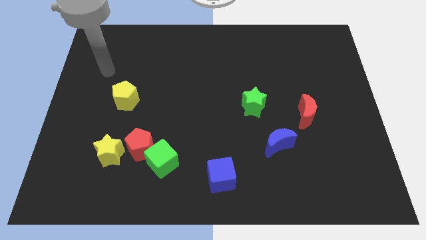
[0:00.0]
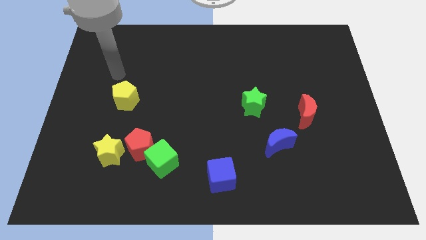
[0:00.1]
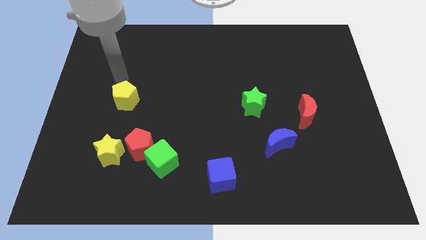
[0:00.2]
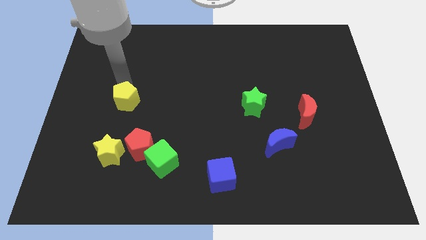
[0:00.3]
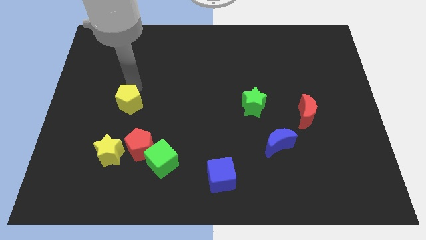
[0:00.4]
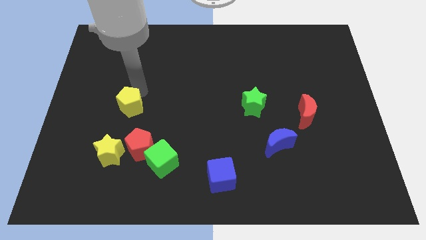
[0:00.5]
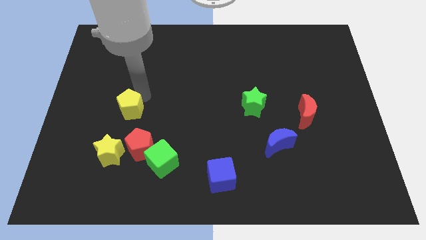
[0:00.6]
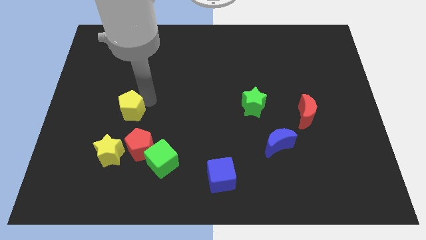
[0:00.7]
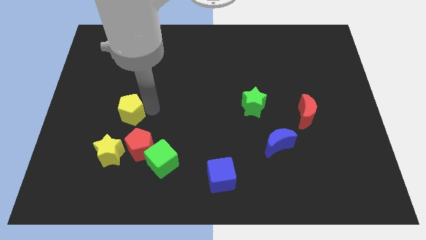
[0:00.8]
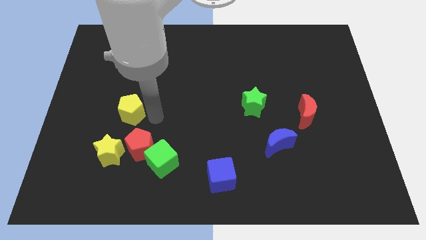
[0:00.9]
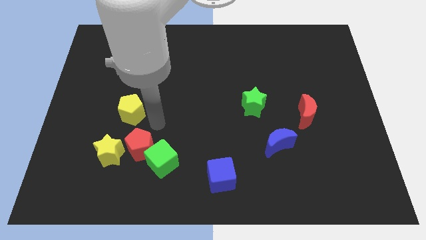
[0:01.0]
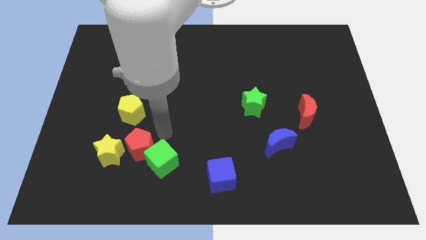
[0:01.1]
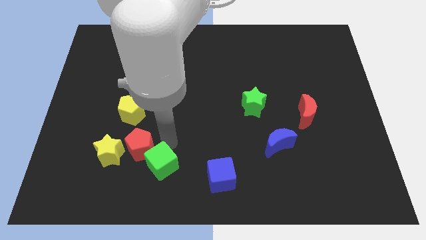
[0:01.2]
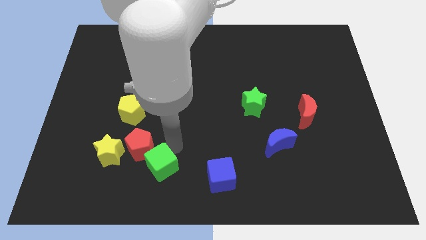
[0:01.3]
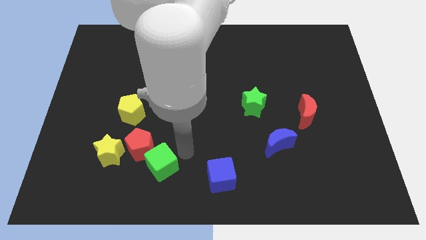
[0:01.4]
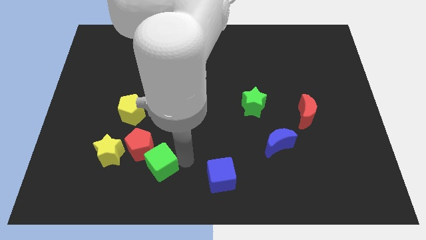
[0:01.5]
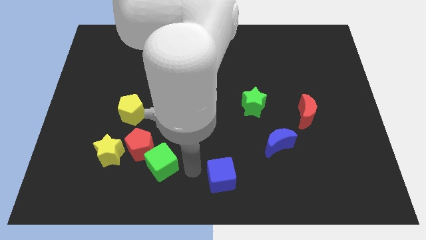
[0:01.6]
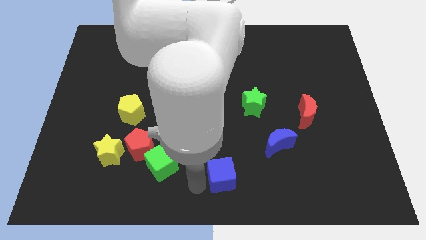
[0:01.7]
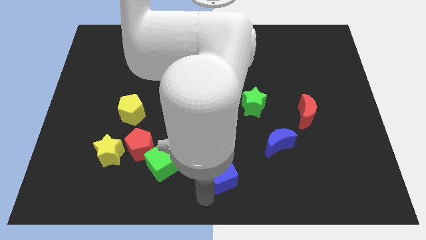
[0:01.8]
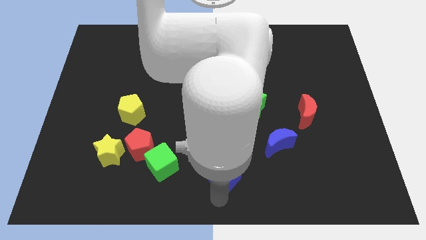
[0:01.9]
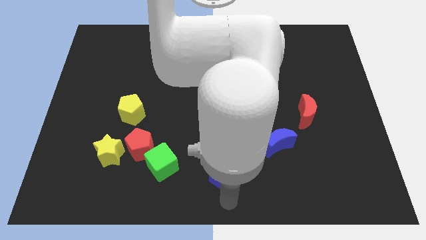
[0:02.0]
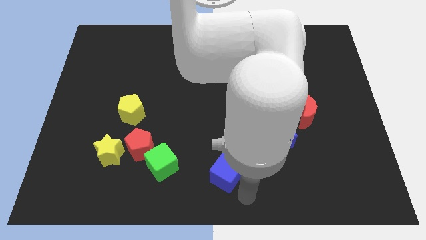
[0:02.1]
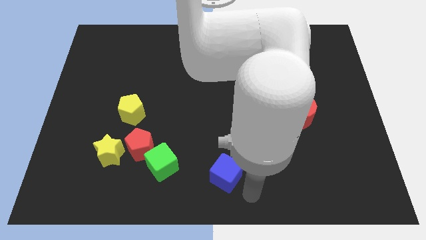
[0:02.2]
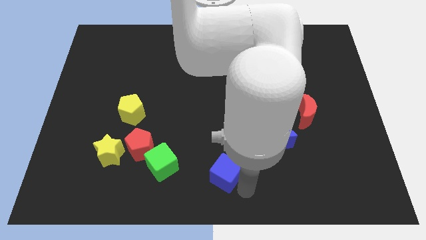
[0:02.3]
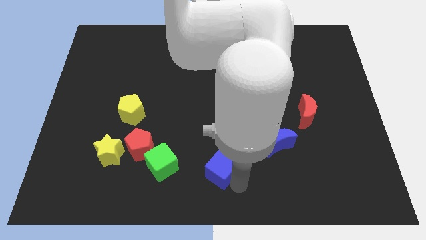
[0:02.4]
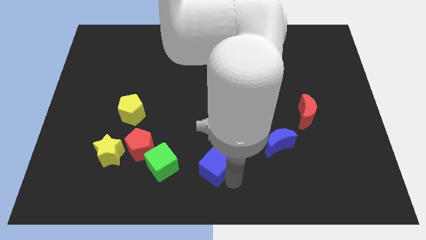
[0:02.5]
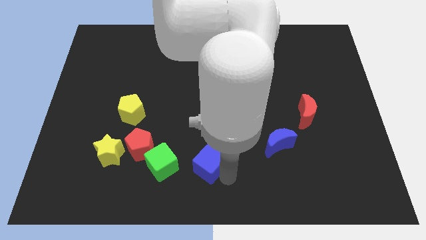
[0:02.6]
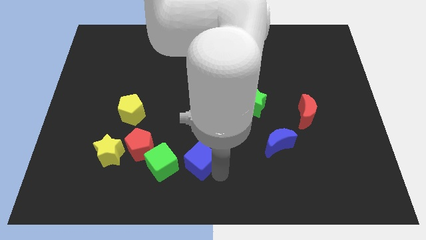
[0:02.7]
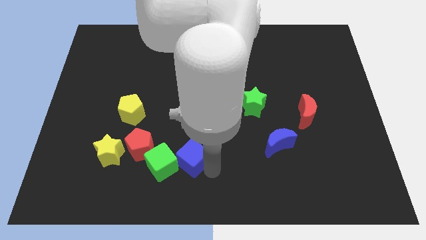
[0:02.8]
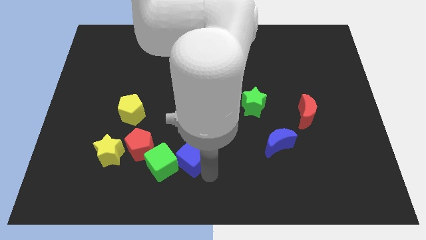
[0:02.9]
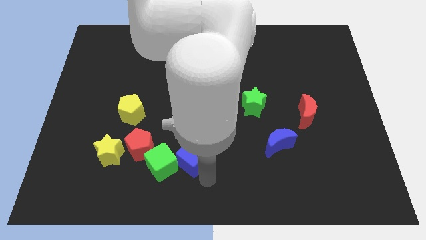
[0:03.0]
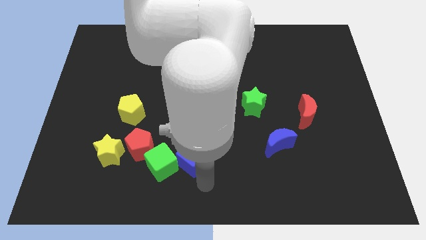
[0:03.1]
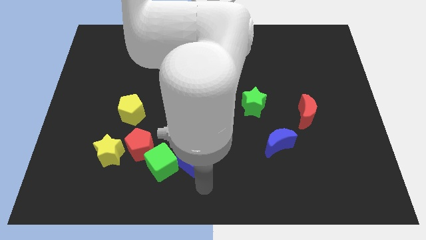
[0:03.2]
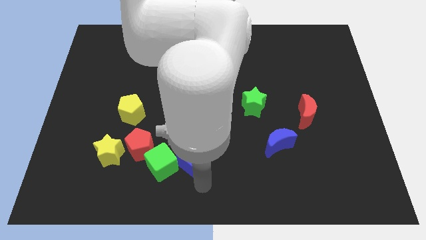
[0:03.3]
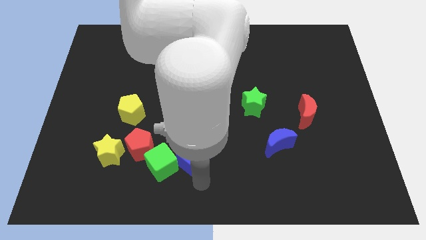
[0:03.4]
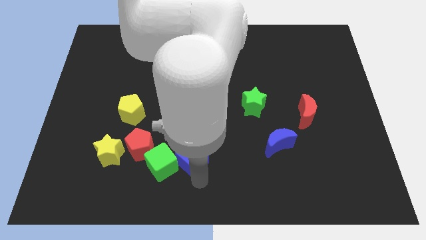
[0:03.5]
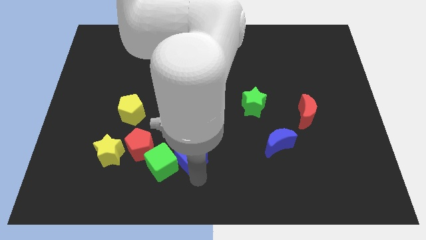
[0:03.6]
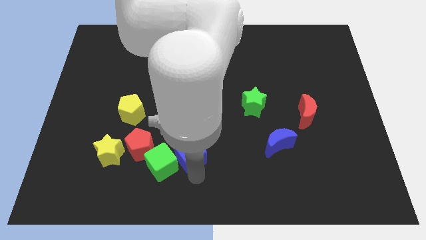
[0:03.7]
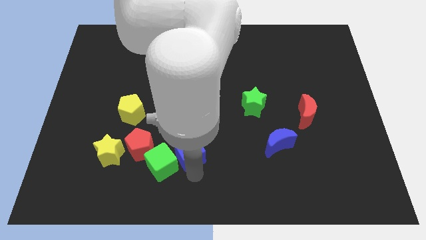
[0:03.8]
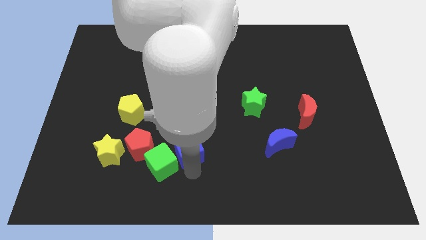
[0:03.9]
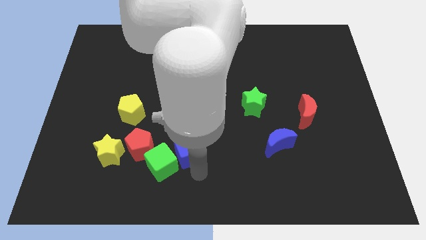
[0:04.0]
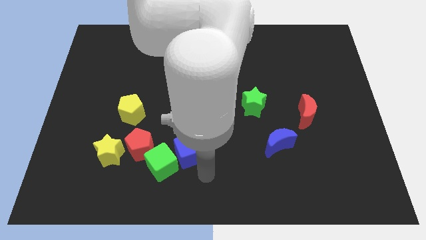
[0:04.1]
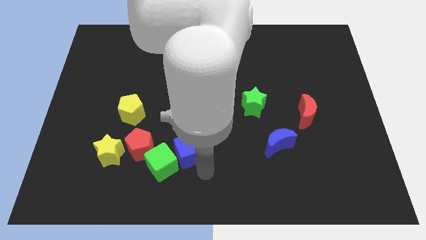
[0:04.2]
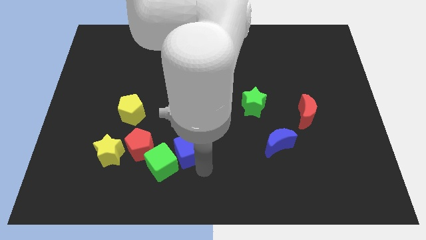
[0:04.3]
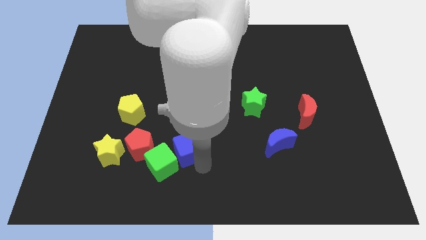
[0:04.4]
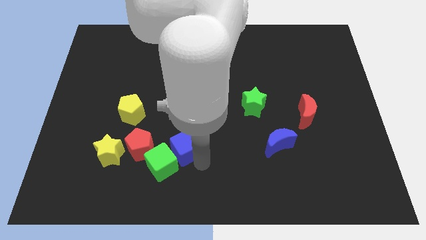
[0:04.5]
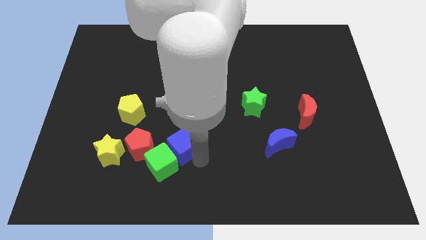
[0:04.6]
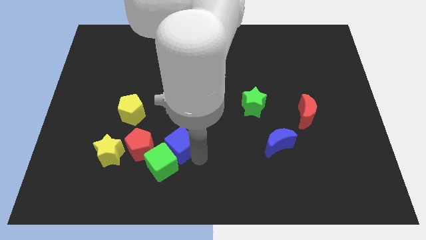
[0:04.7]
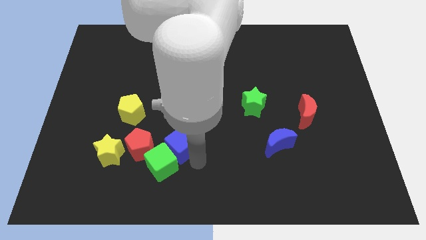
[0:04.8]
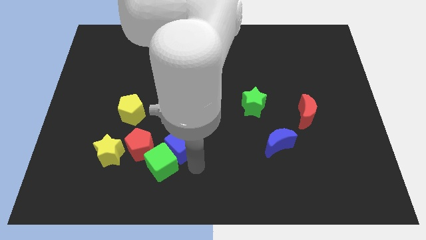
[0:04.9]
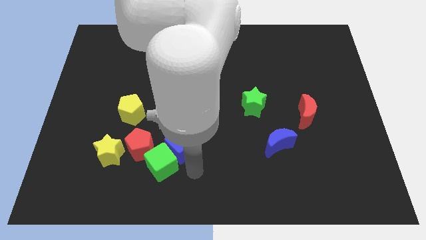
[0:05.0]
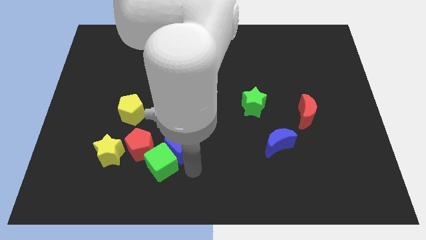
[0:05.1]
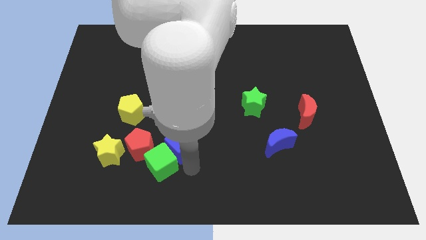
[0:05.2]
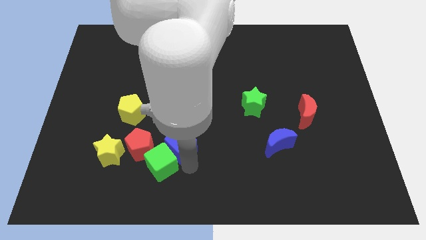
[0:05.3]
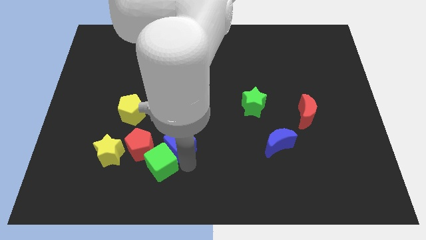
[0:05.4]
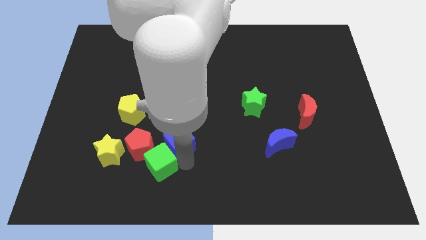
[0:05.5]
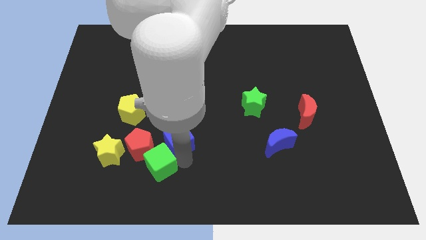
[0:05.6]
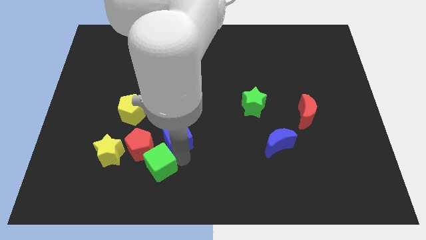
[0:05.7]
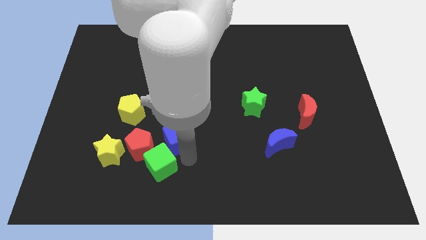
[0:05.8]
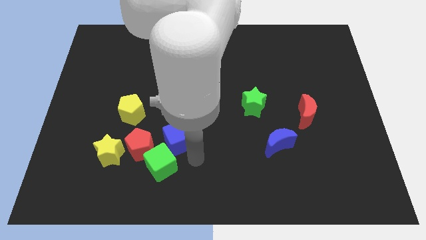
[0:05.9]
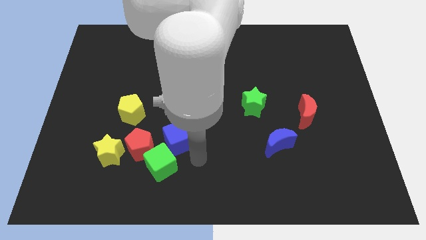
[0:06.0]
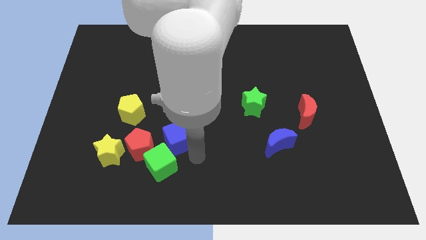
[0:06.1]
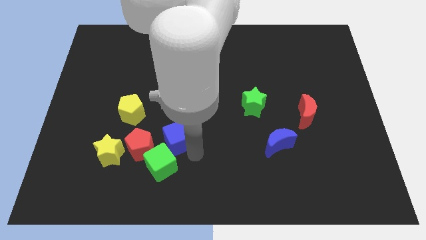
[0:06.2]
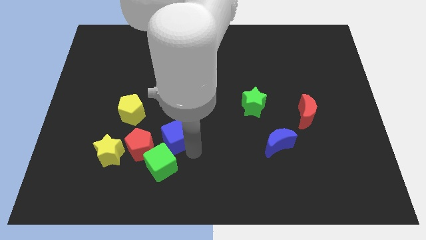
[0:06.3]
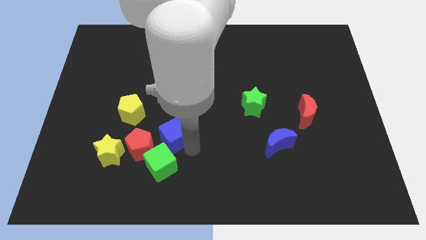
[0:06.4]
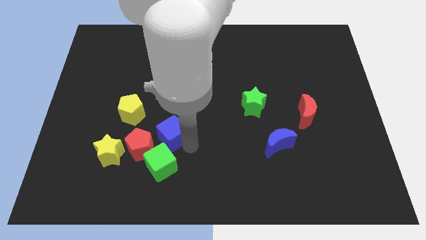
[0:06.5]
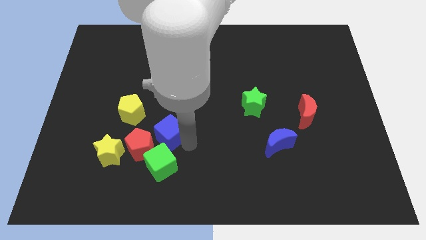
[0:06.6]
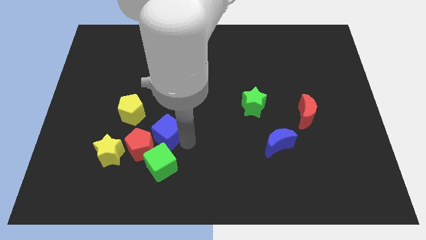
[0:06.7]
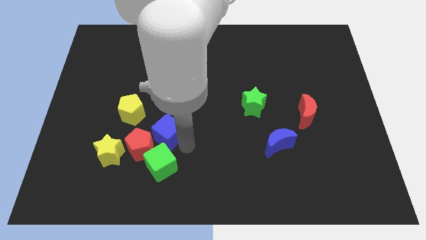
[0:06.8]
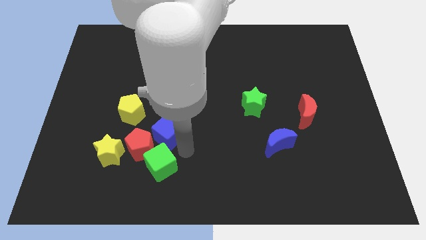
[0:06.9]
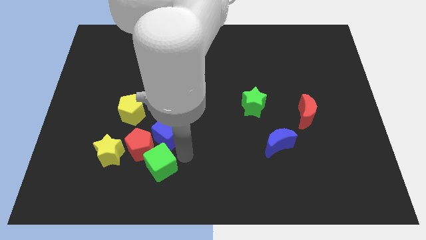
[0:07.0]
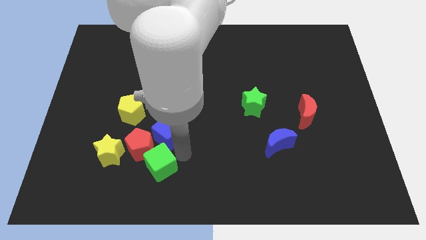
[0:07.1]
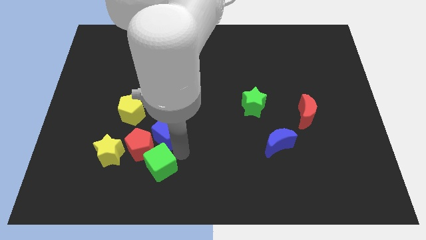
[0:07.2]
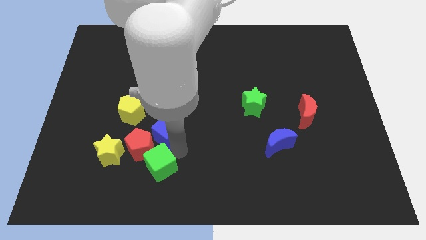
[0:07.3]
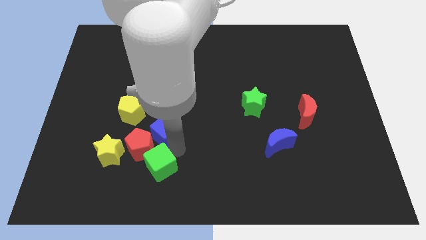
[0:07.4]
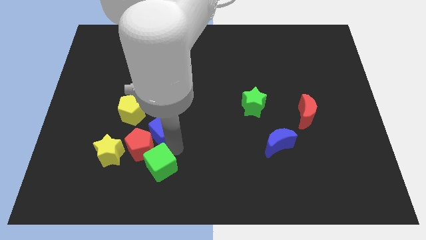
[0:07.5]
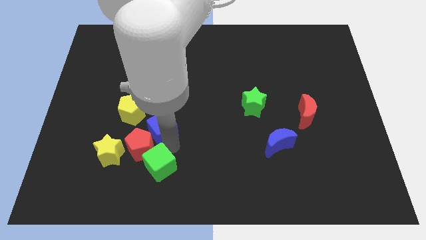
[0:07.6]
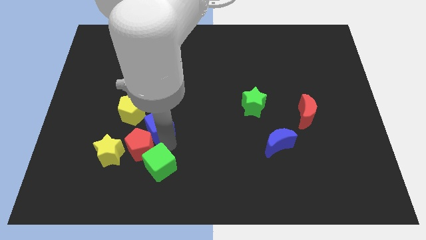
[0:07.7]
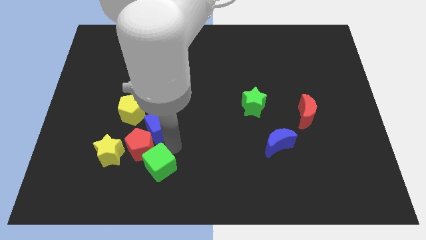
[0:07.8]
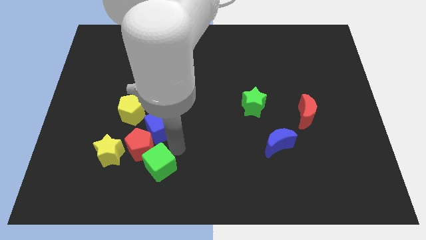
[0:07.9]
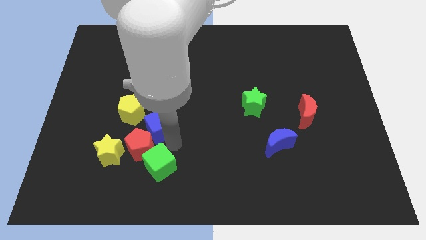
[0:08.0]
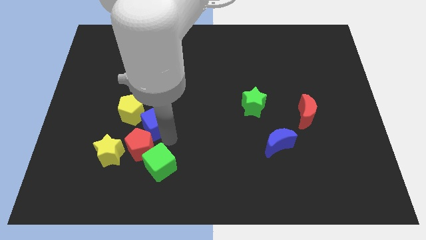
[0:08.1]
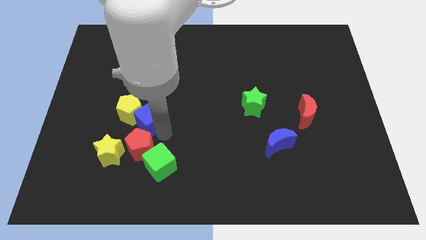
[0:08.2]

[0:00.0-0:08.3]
push the blue cube close to the yellow pentagon
